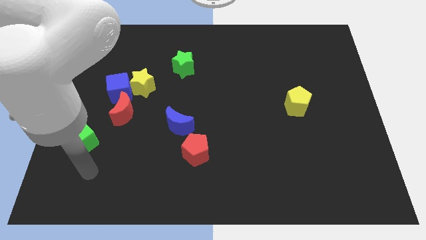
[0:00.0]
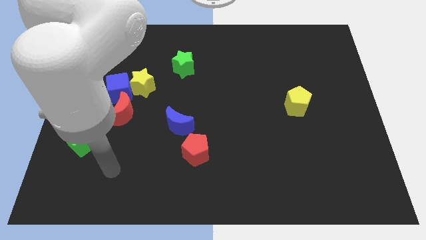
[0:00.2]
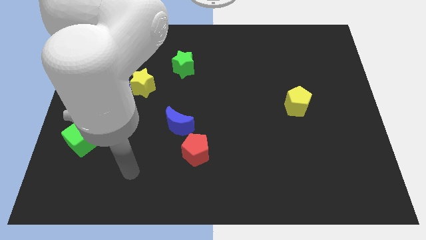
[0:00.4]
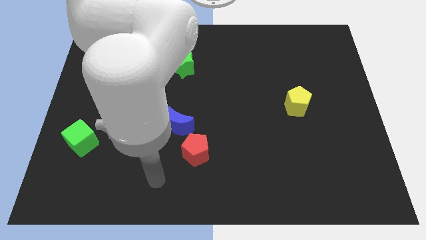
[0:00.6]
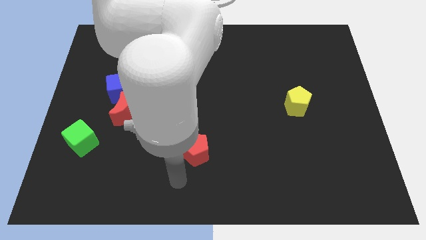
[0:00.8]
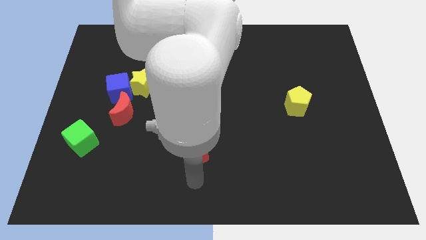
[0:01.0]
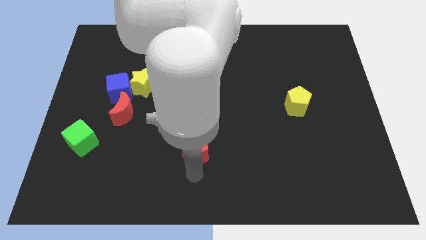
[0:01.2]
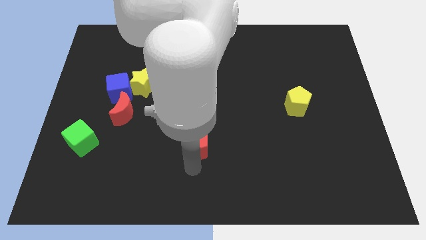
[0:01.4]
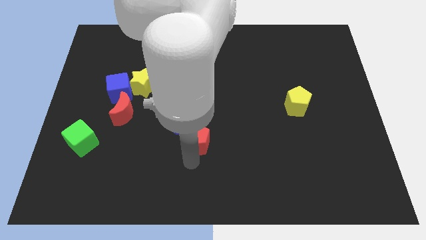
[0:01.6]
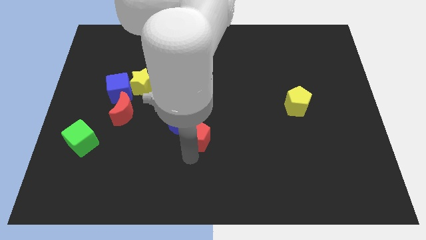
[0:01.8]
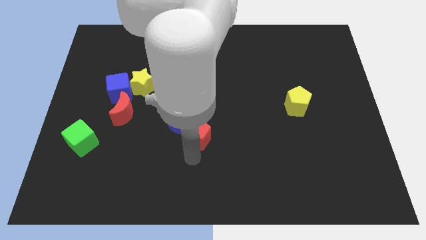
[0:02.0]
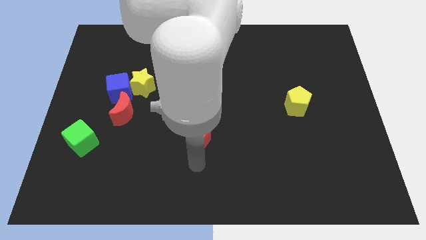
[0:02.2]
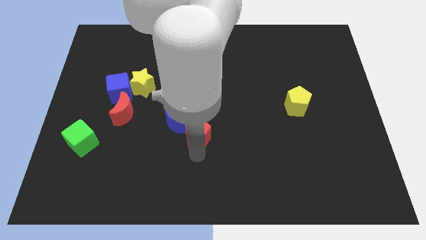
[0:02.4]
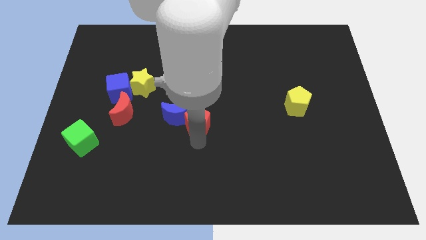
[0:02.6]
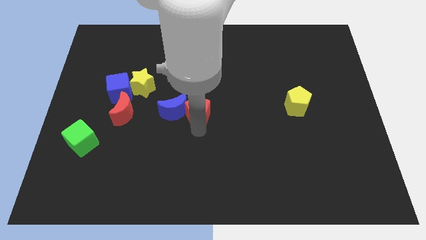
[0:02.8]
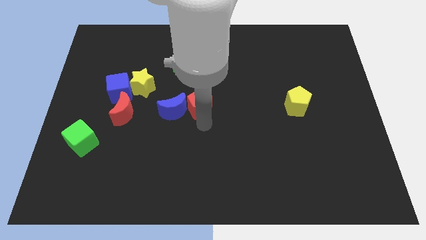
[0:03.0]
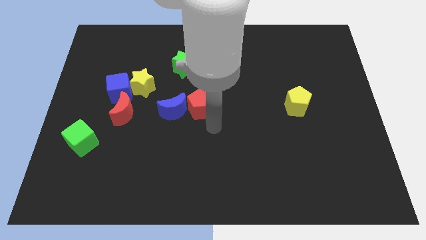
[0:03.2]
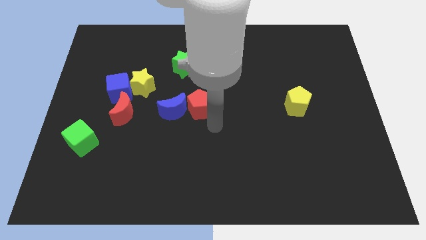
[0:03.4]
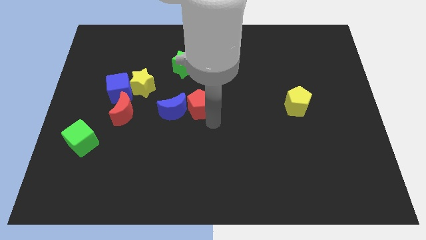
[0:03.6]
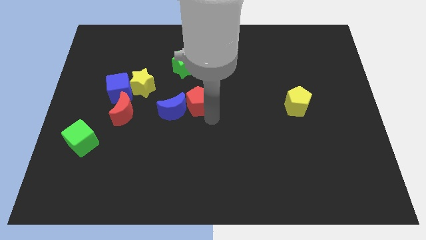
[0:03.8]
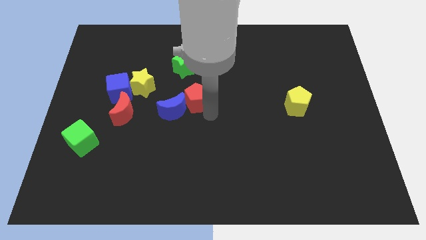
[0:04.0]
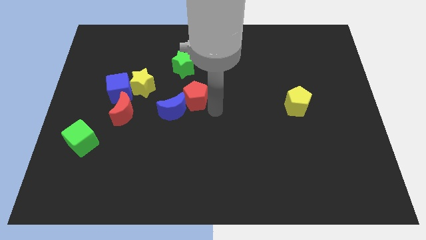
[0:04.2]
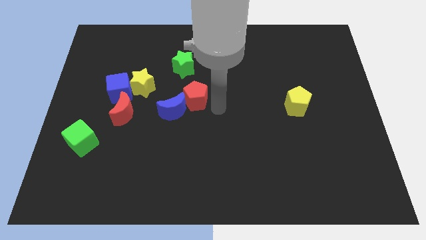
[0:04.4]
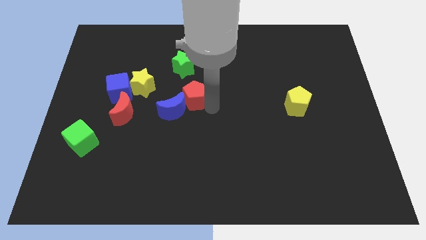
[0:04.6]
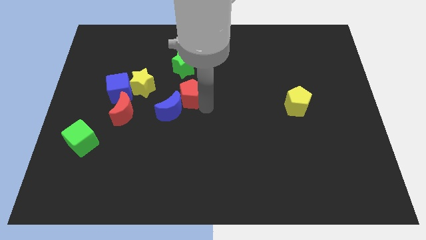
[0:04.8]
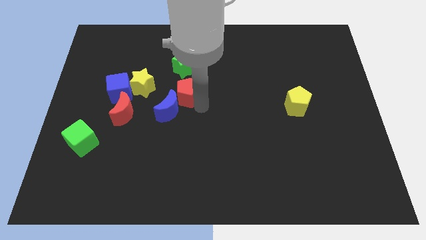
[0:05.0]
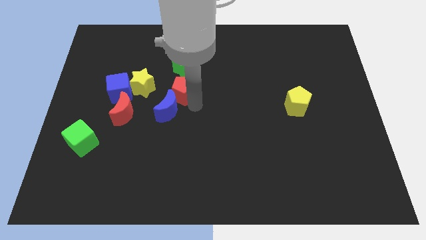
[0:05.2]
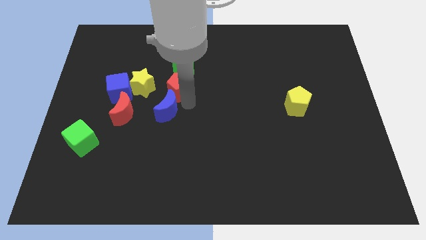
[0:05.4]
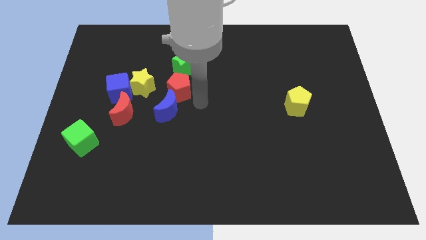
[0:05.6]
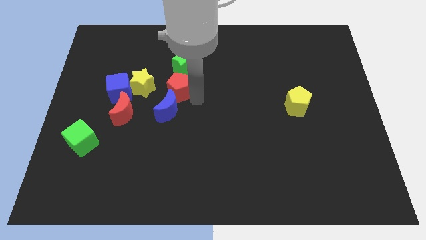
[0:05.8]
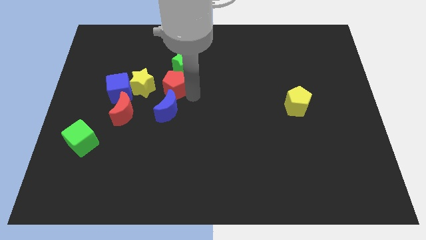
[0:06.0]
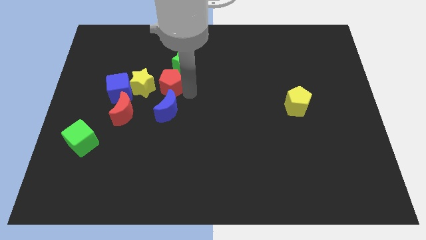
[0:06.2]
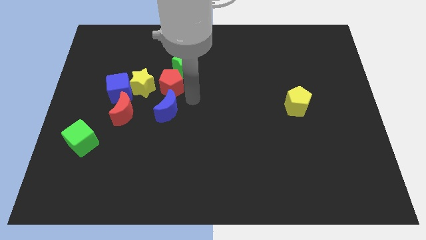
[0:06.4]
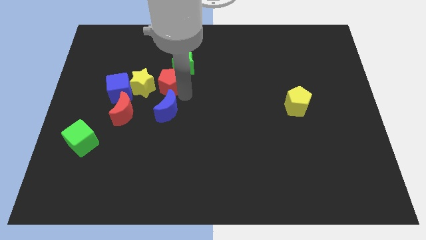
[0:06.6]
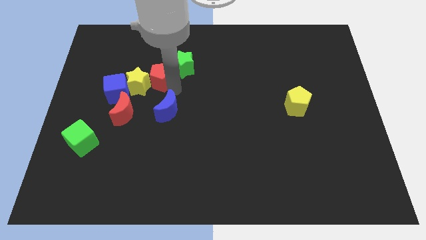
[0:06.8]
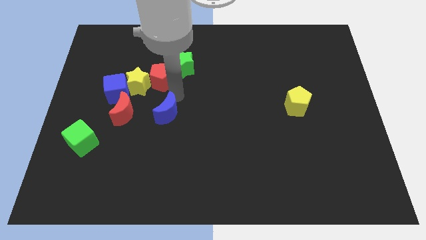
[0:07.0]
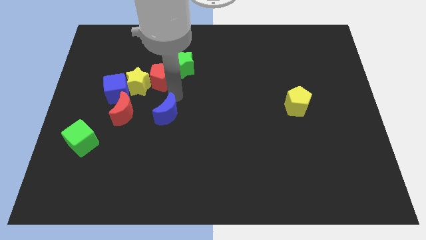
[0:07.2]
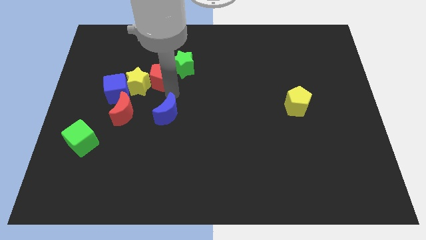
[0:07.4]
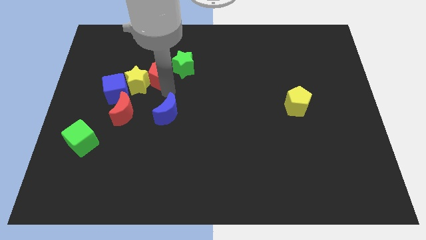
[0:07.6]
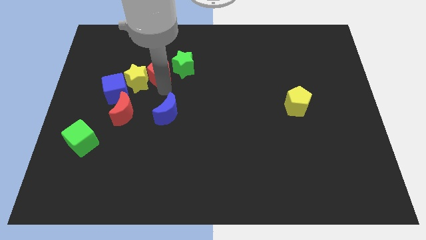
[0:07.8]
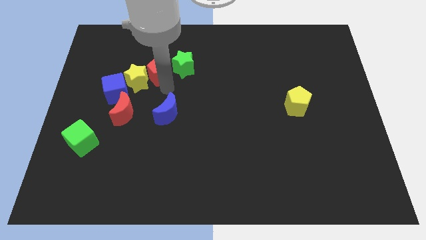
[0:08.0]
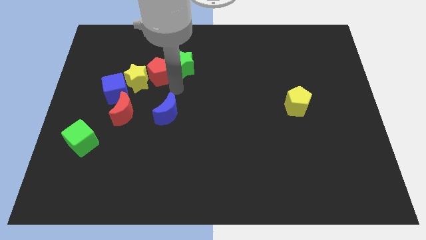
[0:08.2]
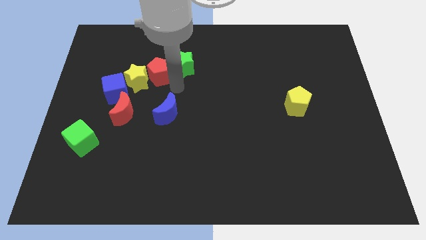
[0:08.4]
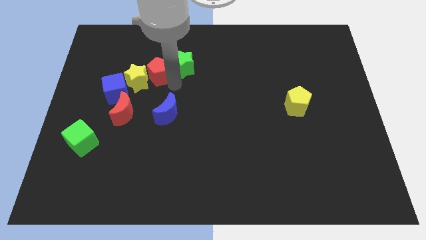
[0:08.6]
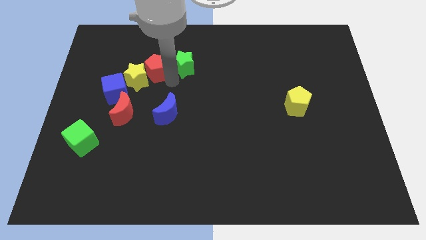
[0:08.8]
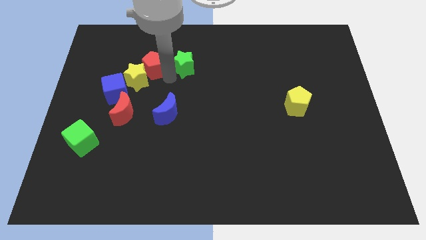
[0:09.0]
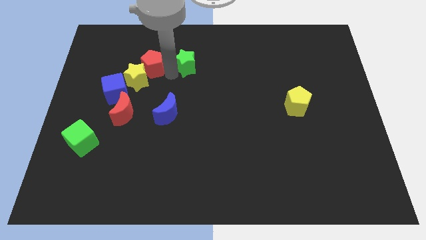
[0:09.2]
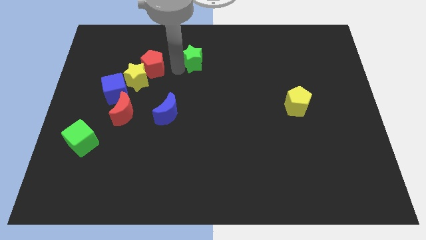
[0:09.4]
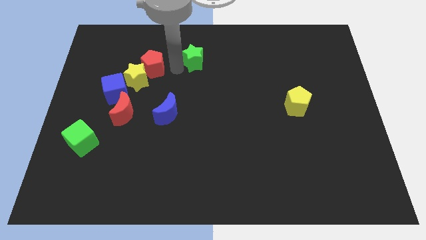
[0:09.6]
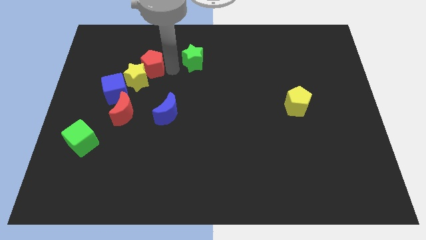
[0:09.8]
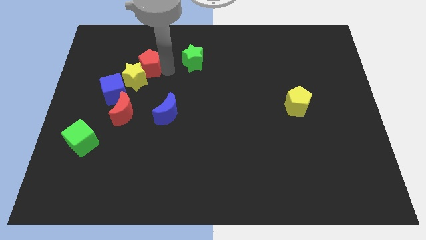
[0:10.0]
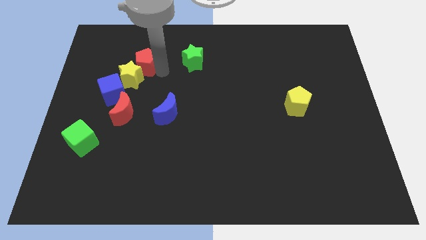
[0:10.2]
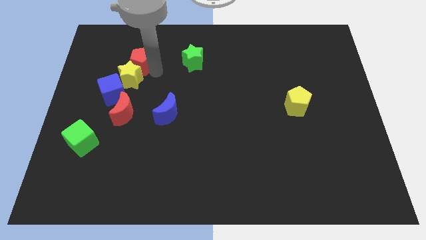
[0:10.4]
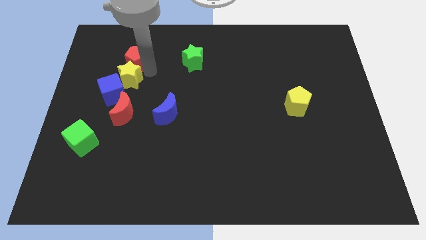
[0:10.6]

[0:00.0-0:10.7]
push the red pentagon above the blue cube

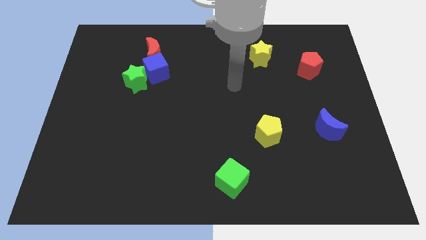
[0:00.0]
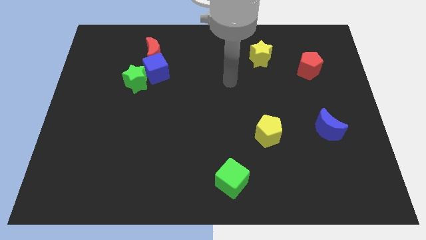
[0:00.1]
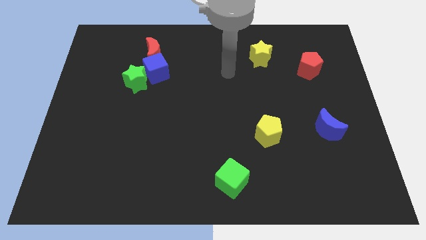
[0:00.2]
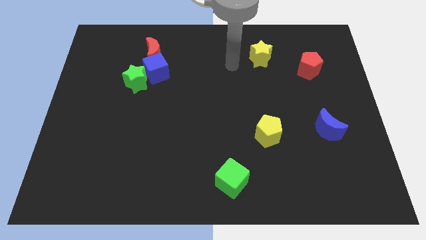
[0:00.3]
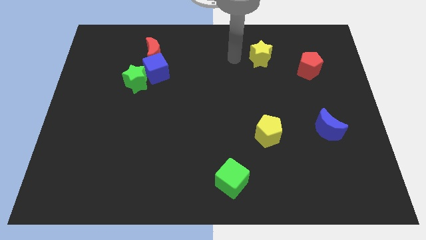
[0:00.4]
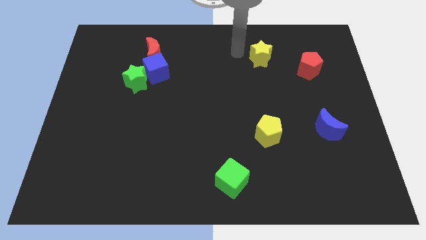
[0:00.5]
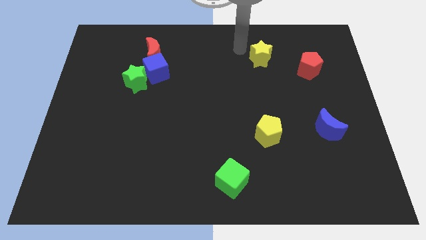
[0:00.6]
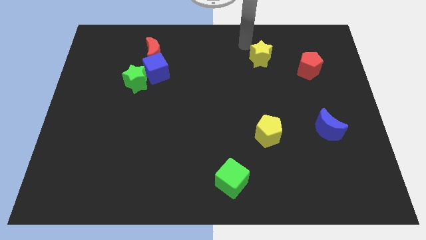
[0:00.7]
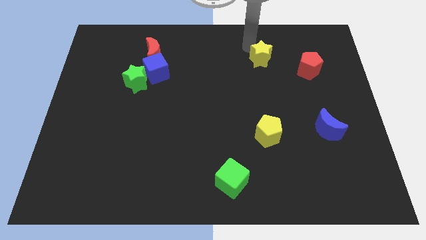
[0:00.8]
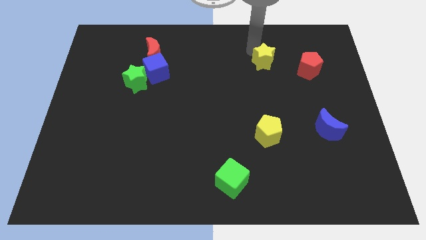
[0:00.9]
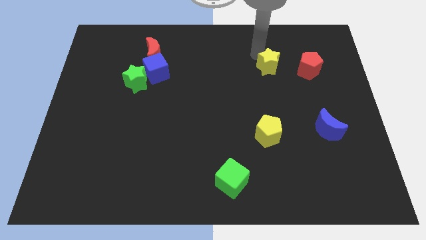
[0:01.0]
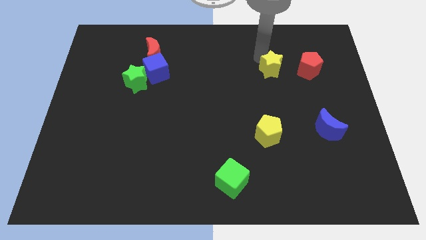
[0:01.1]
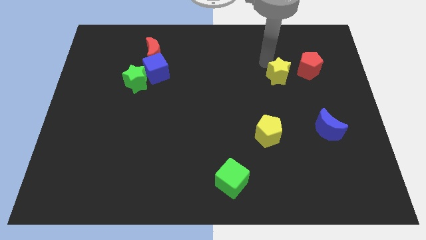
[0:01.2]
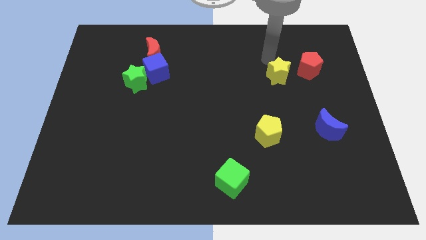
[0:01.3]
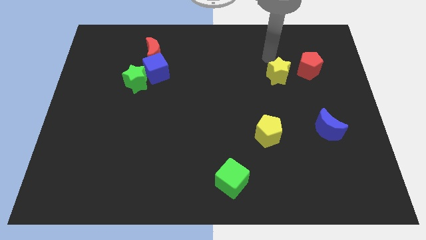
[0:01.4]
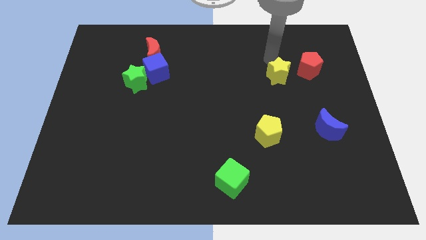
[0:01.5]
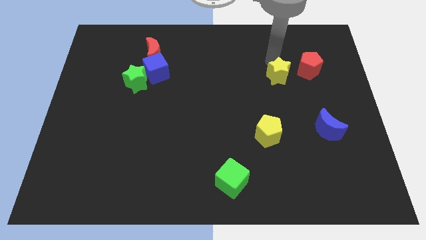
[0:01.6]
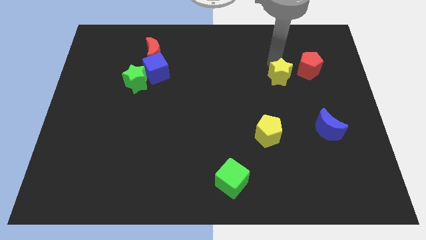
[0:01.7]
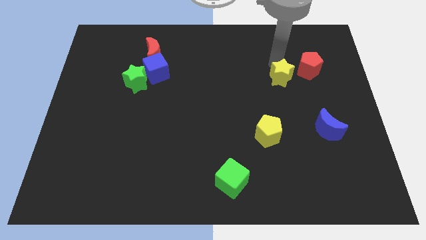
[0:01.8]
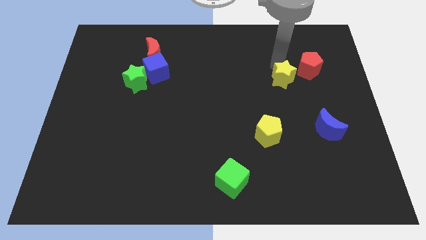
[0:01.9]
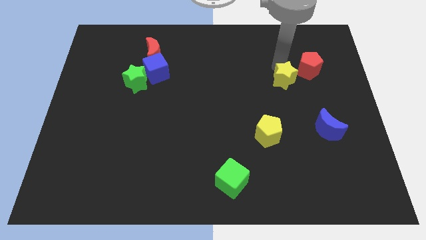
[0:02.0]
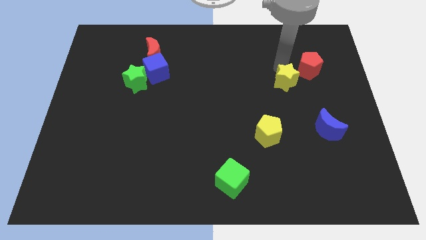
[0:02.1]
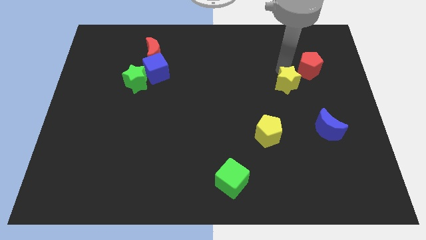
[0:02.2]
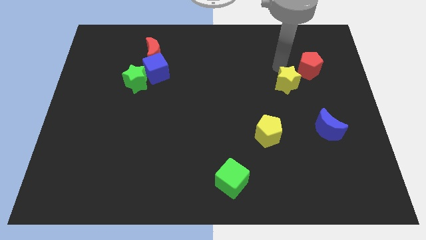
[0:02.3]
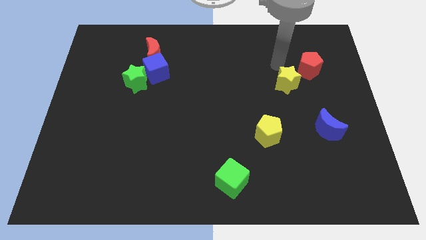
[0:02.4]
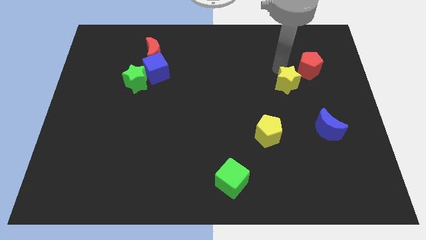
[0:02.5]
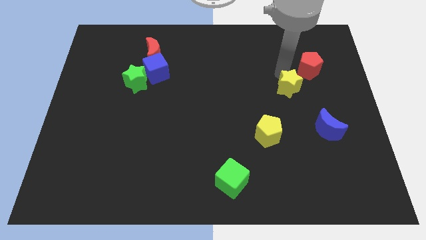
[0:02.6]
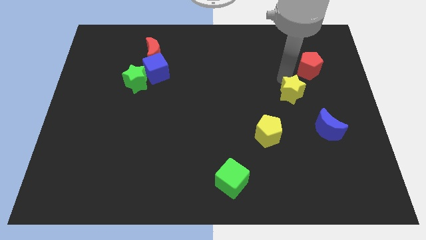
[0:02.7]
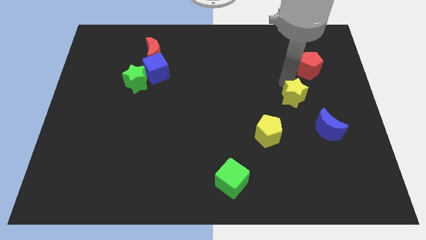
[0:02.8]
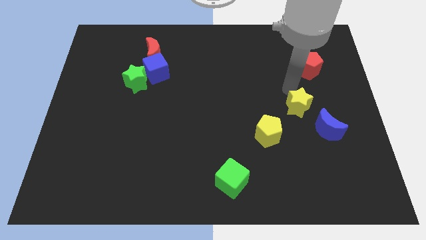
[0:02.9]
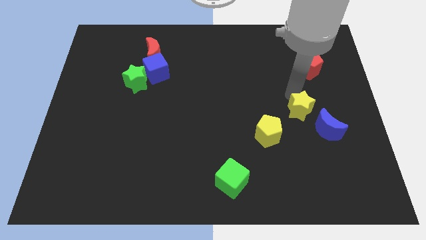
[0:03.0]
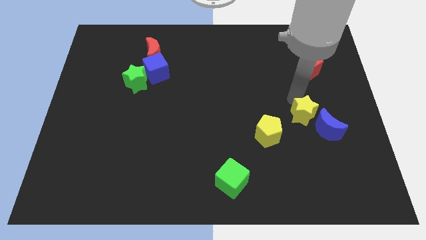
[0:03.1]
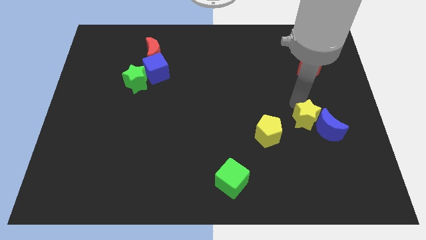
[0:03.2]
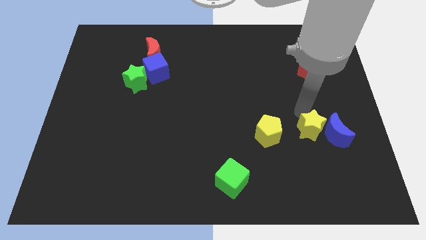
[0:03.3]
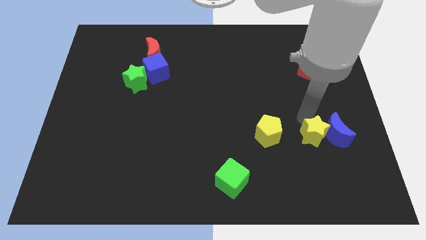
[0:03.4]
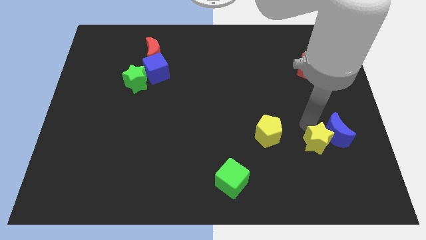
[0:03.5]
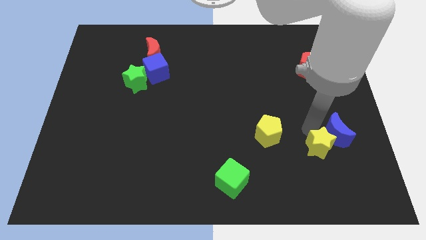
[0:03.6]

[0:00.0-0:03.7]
push the yellow star to the bottom side of the blue moon
